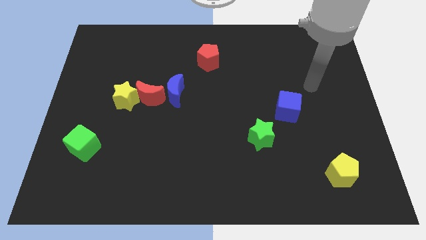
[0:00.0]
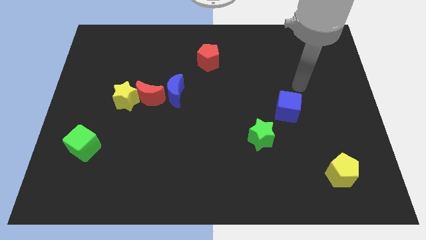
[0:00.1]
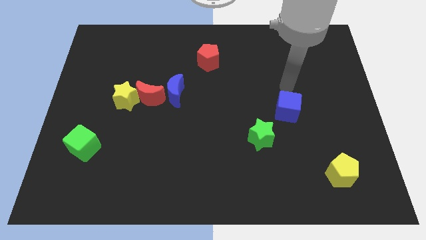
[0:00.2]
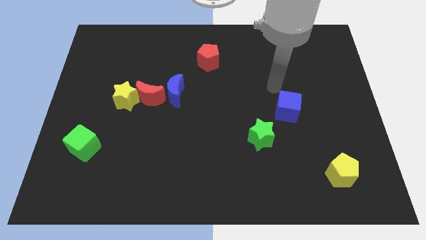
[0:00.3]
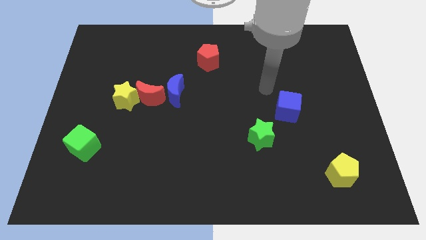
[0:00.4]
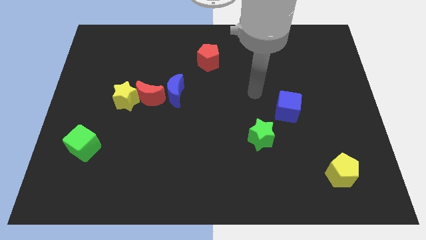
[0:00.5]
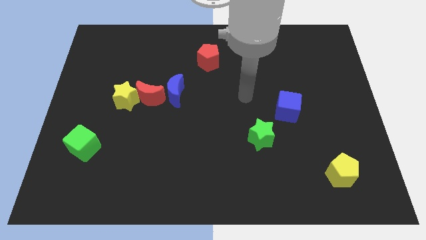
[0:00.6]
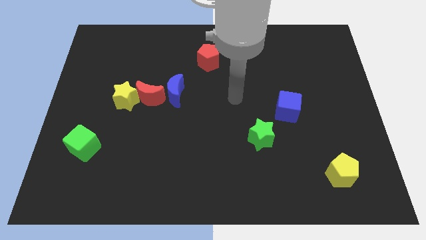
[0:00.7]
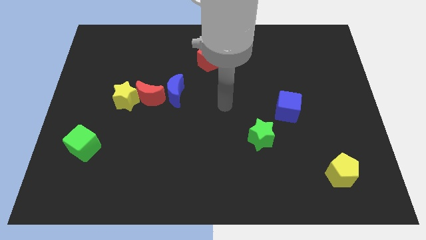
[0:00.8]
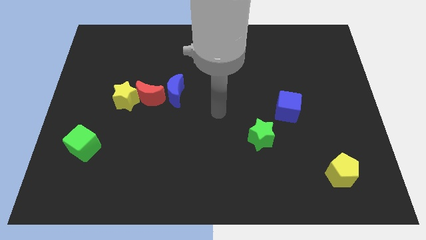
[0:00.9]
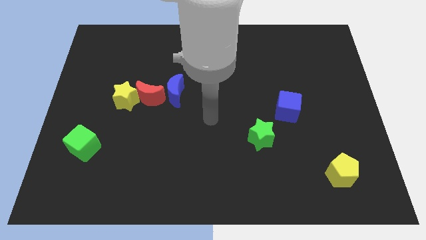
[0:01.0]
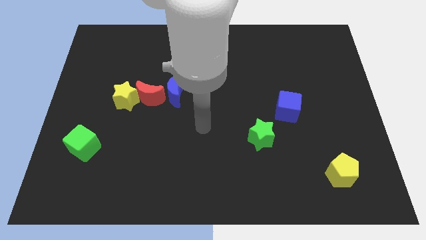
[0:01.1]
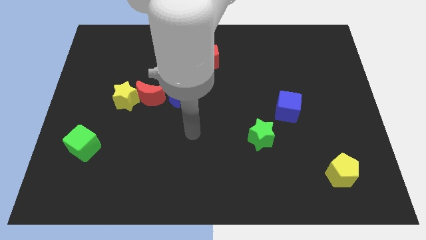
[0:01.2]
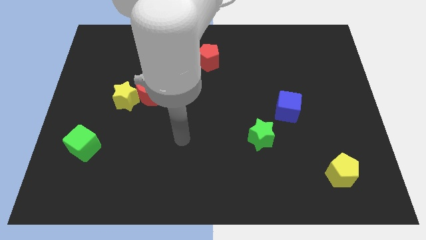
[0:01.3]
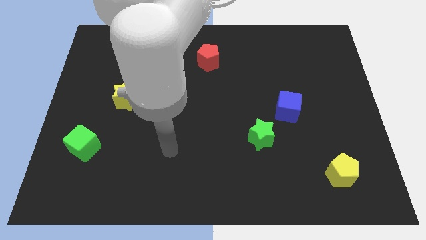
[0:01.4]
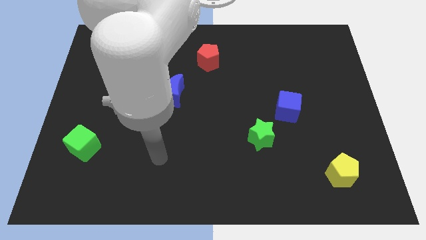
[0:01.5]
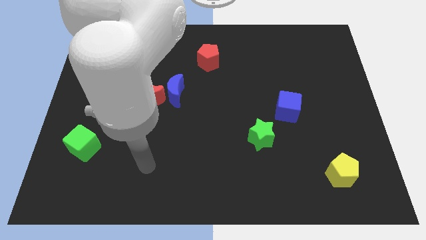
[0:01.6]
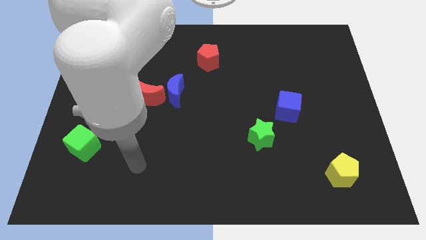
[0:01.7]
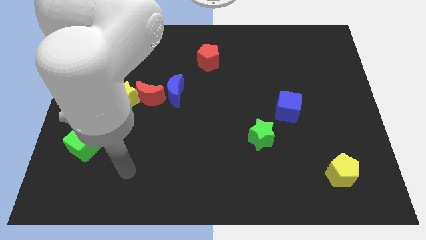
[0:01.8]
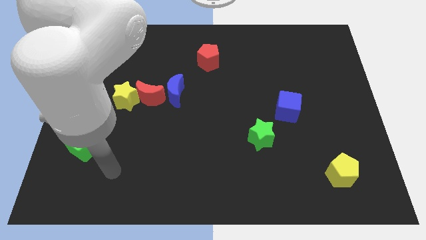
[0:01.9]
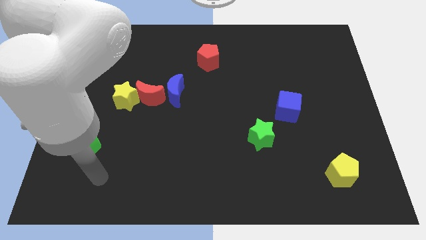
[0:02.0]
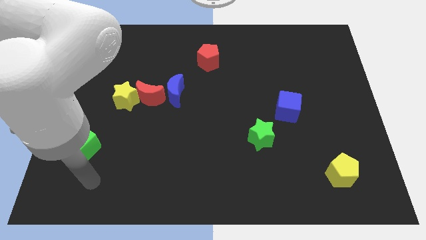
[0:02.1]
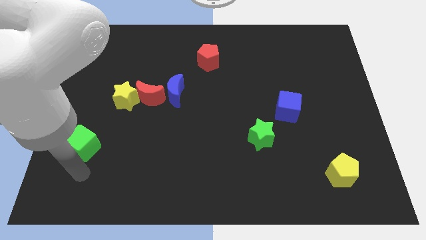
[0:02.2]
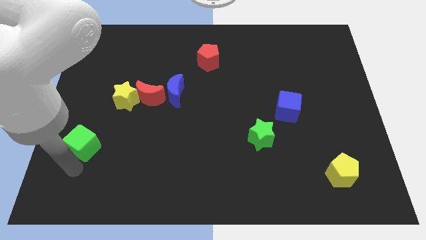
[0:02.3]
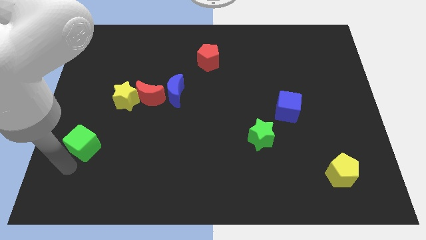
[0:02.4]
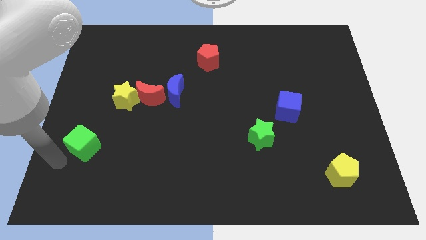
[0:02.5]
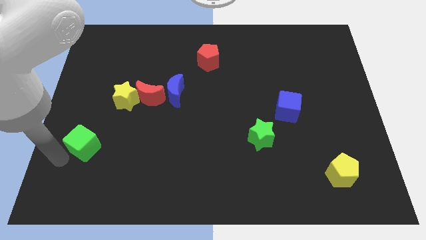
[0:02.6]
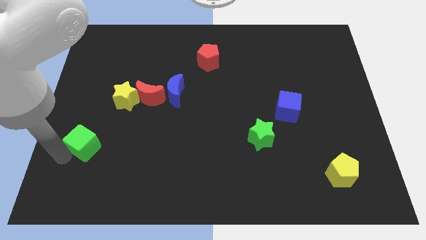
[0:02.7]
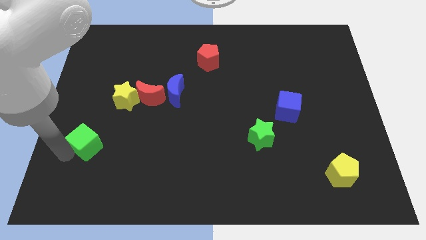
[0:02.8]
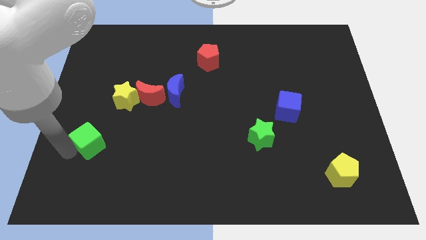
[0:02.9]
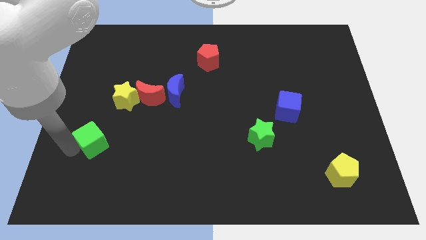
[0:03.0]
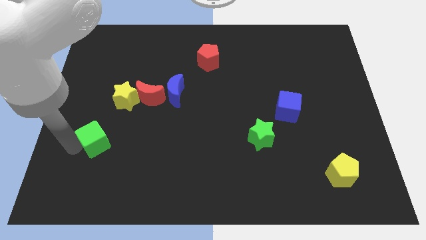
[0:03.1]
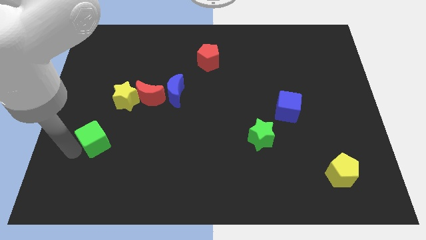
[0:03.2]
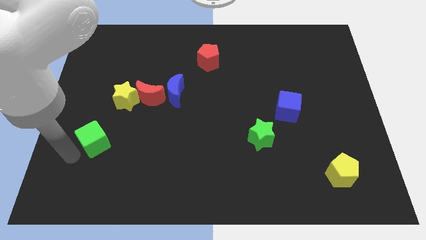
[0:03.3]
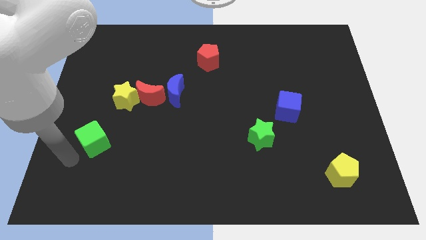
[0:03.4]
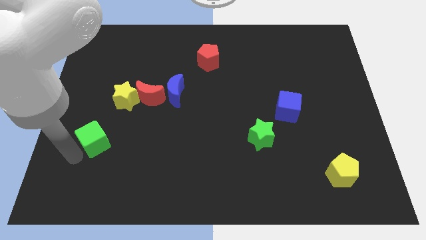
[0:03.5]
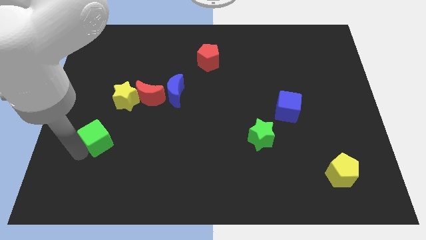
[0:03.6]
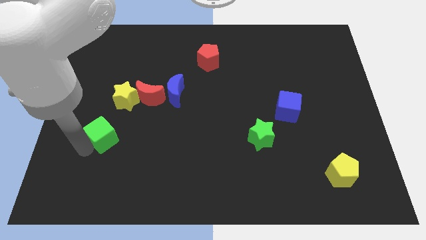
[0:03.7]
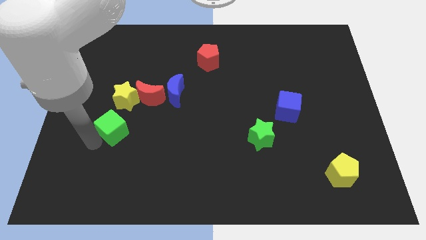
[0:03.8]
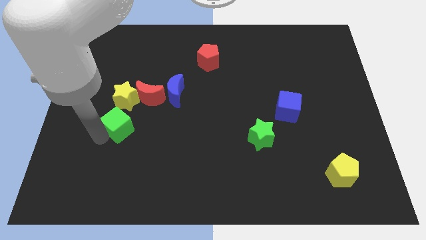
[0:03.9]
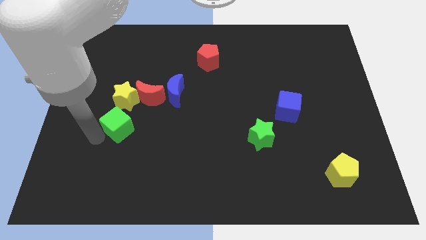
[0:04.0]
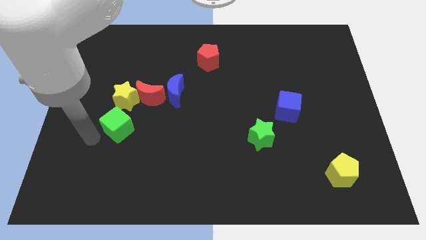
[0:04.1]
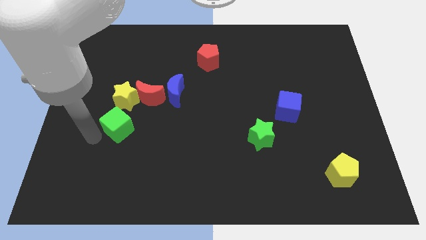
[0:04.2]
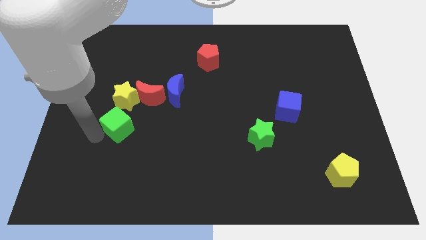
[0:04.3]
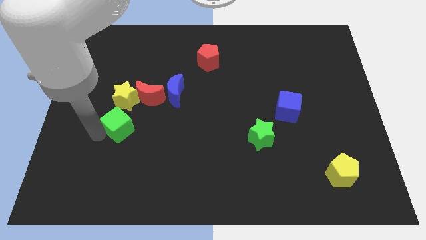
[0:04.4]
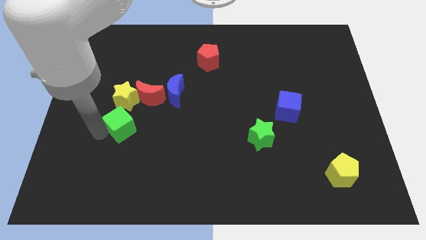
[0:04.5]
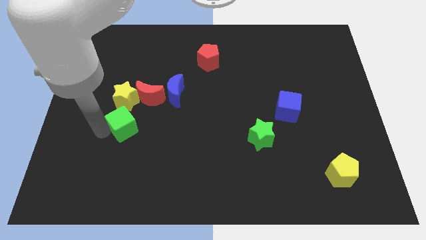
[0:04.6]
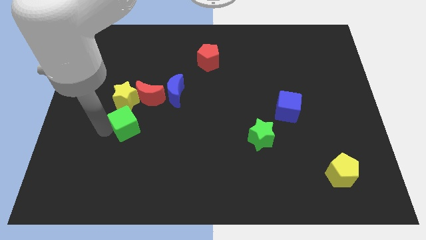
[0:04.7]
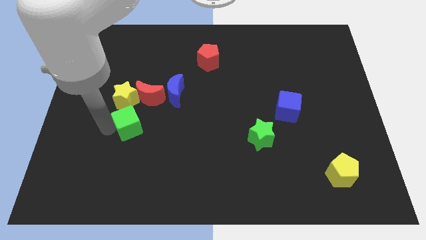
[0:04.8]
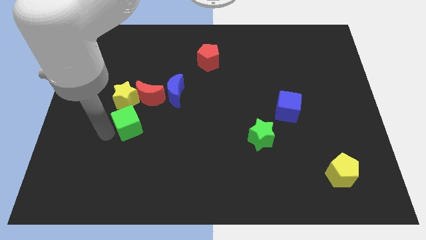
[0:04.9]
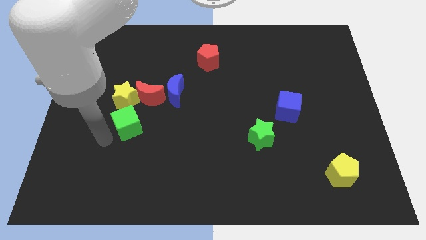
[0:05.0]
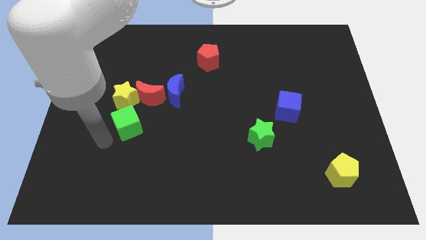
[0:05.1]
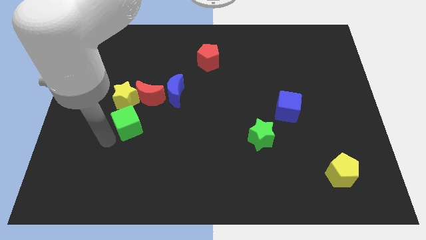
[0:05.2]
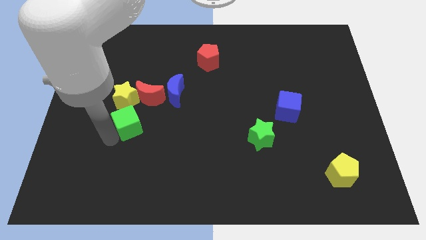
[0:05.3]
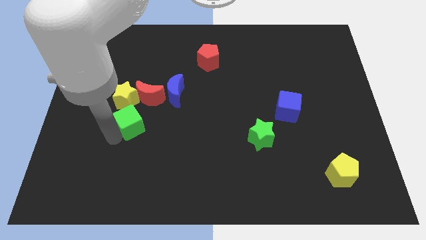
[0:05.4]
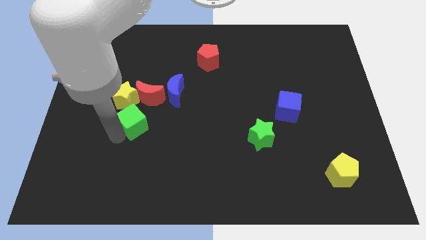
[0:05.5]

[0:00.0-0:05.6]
put the green cube diagonally down and to the left of the blue moon

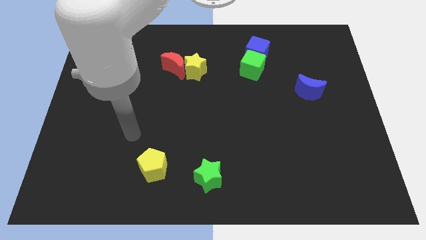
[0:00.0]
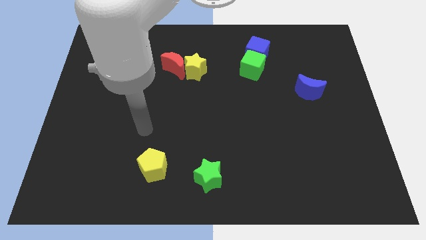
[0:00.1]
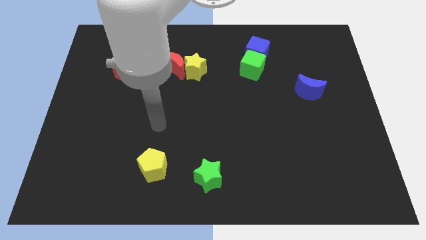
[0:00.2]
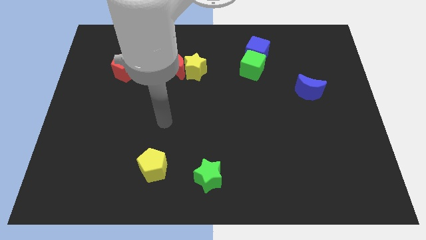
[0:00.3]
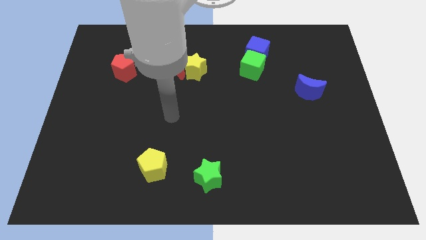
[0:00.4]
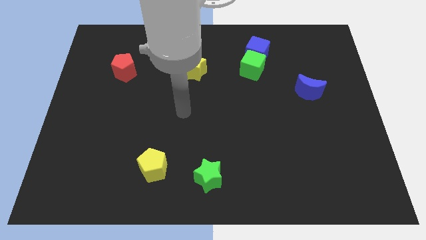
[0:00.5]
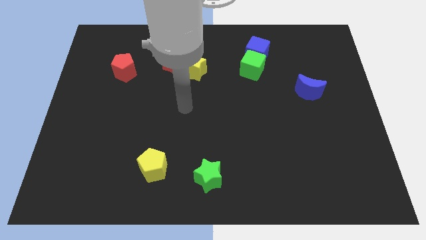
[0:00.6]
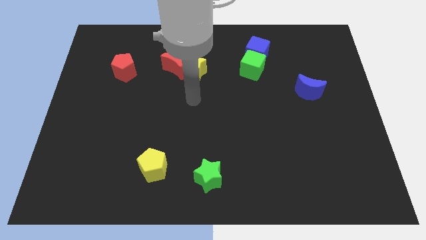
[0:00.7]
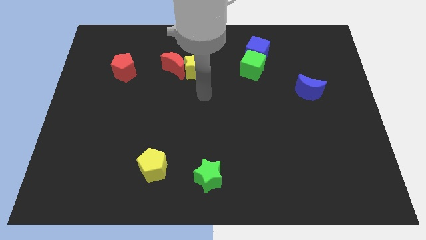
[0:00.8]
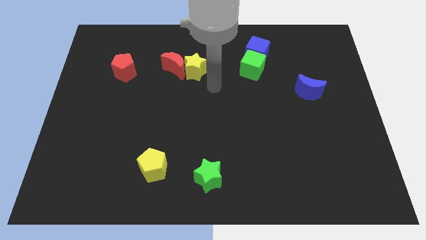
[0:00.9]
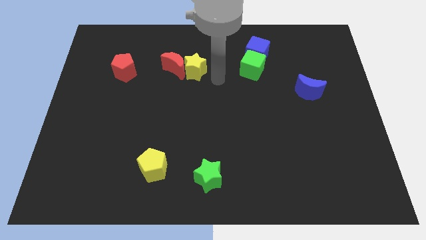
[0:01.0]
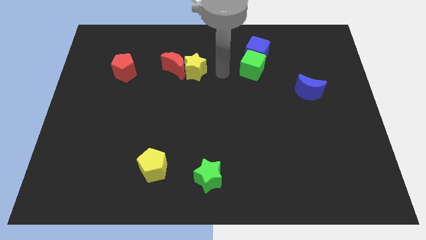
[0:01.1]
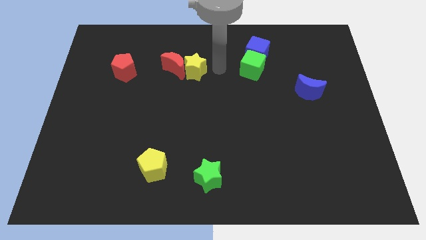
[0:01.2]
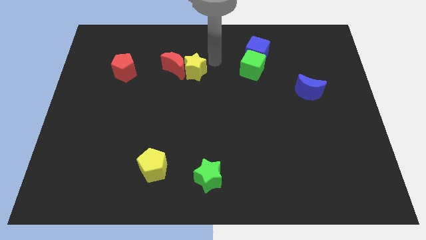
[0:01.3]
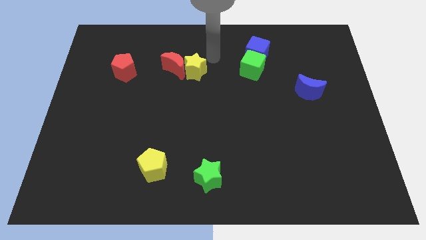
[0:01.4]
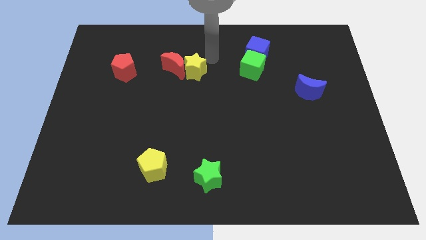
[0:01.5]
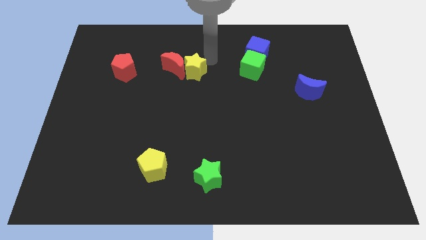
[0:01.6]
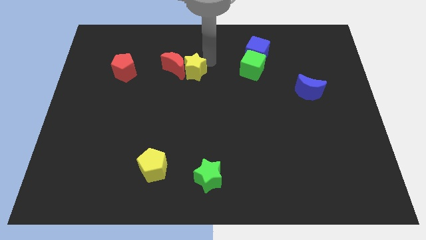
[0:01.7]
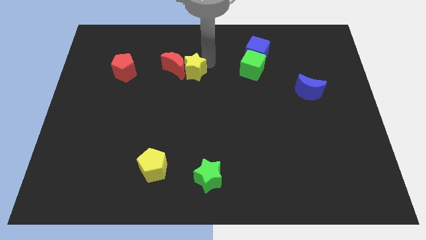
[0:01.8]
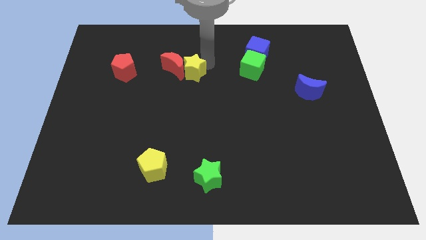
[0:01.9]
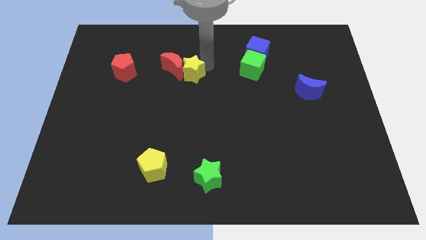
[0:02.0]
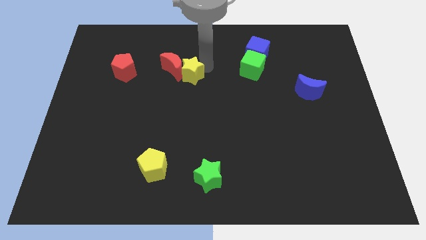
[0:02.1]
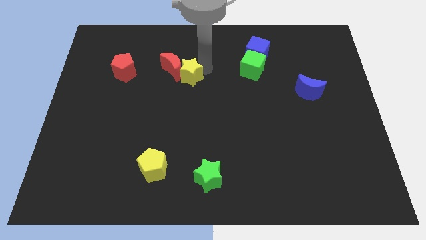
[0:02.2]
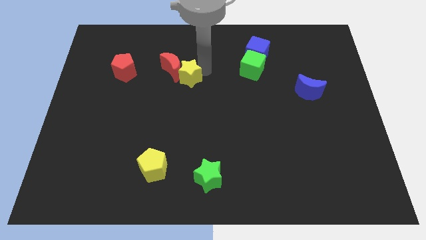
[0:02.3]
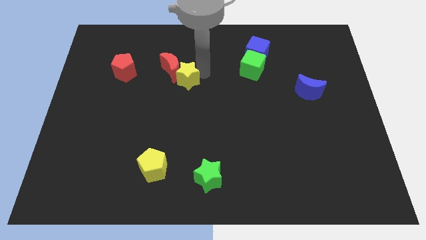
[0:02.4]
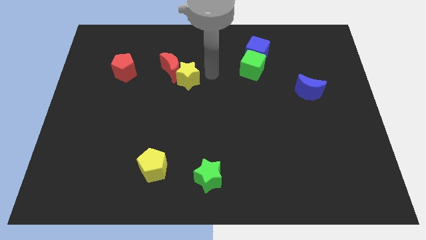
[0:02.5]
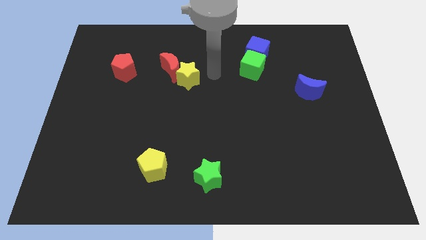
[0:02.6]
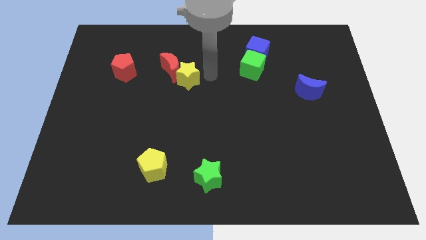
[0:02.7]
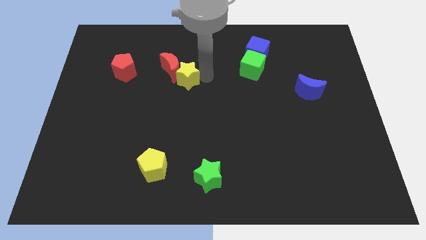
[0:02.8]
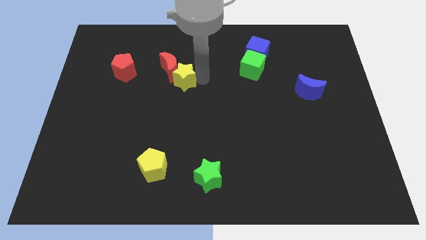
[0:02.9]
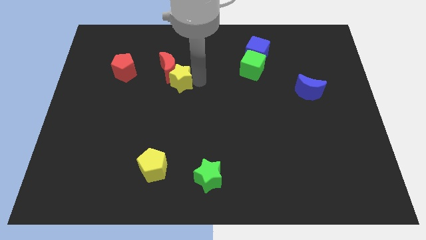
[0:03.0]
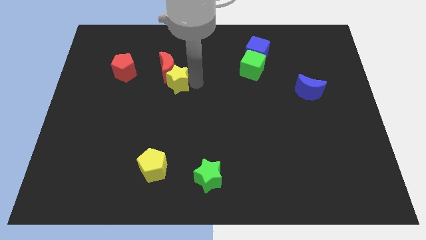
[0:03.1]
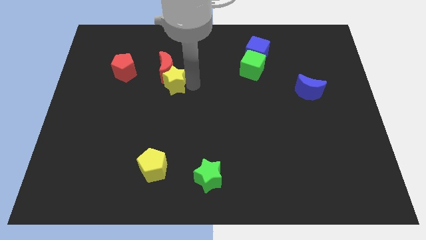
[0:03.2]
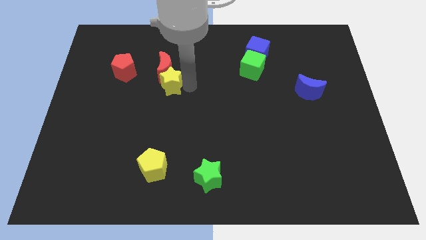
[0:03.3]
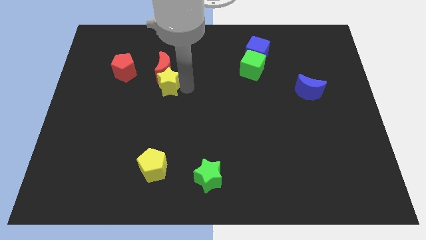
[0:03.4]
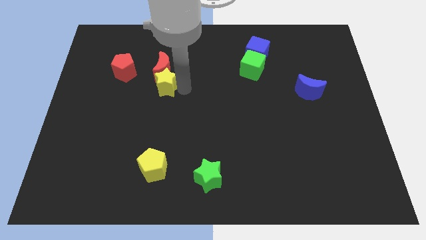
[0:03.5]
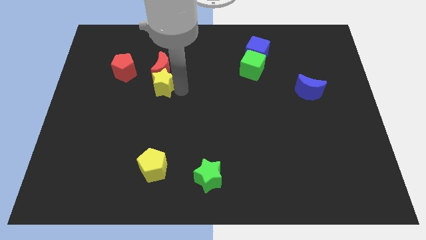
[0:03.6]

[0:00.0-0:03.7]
put the yellow star diagonally down and to the right of the red pentagon
